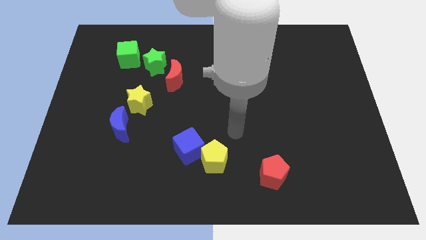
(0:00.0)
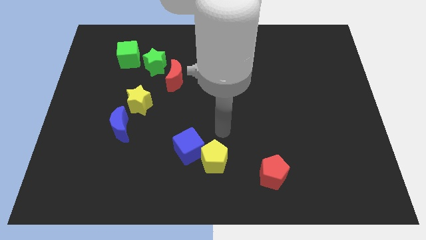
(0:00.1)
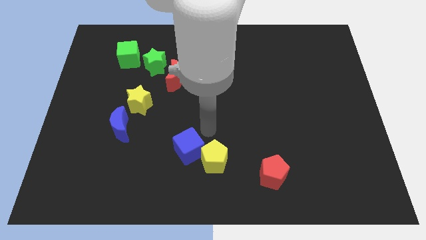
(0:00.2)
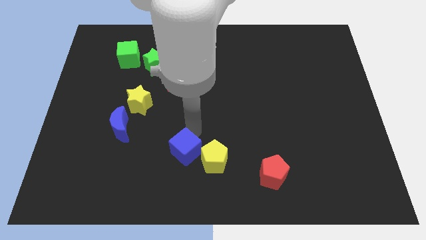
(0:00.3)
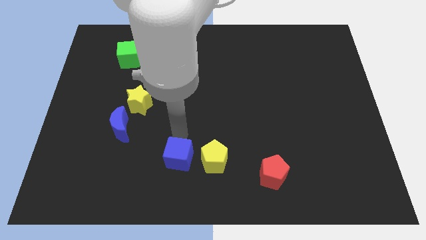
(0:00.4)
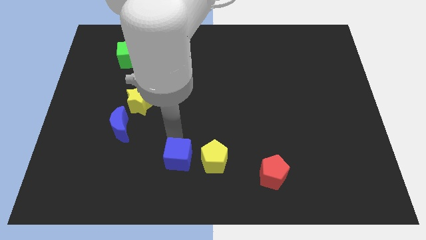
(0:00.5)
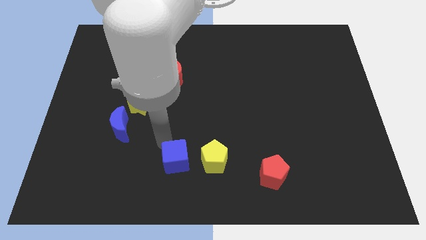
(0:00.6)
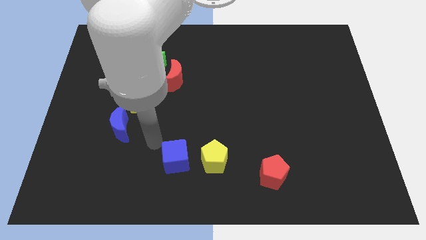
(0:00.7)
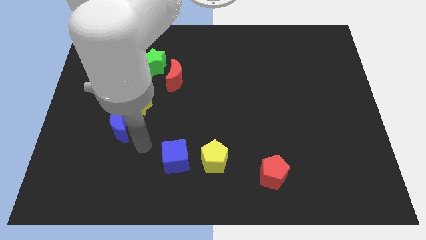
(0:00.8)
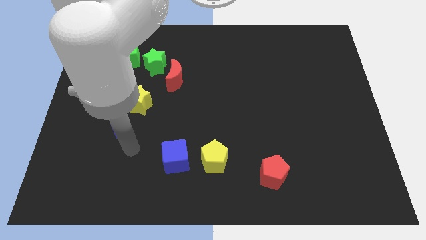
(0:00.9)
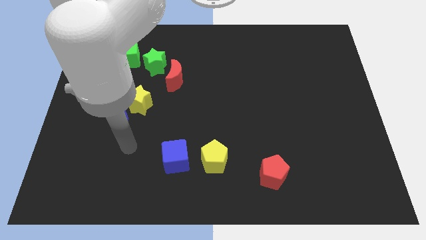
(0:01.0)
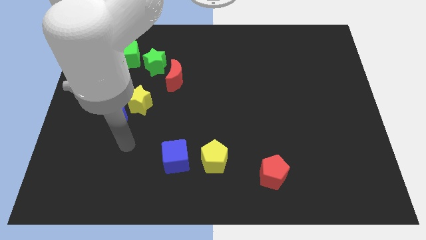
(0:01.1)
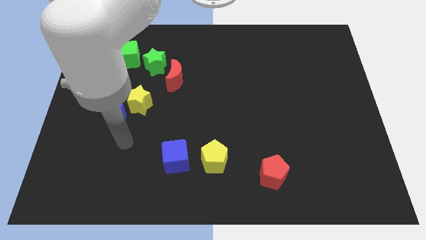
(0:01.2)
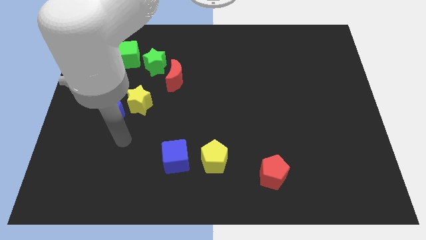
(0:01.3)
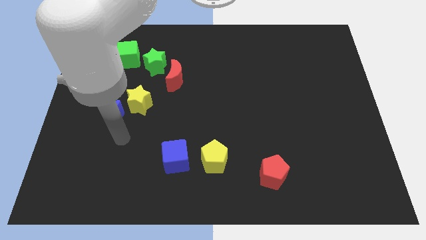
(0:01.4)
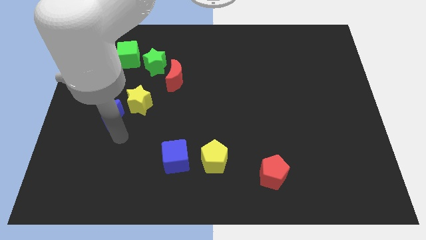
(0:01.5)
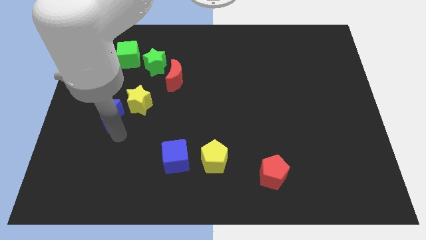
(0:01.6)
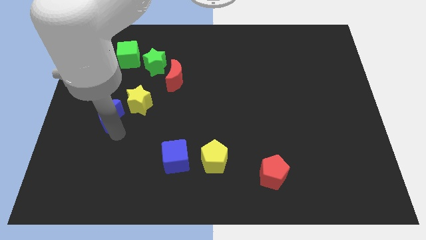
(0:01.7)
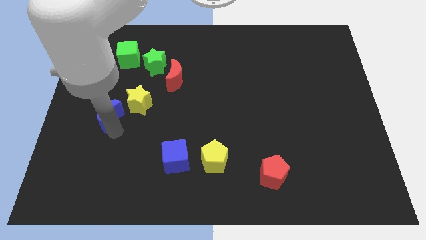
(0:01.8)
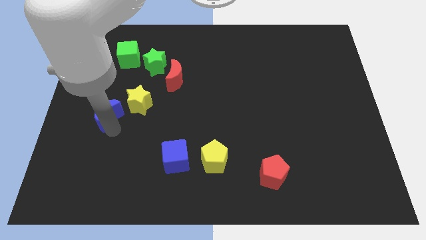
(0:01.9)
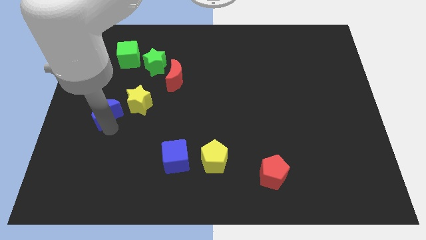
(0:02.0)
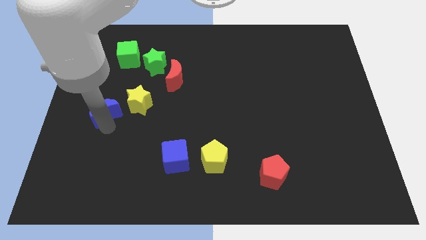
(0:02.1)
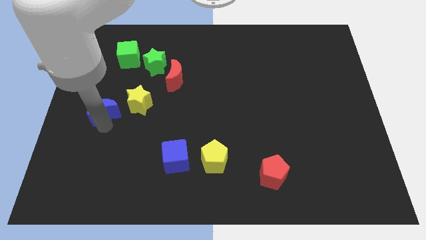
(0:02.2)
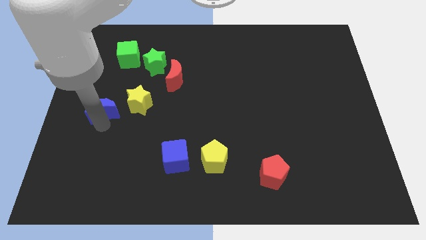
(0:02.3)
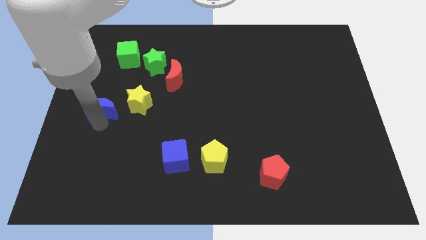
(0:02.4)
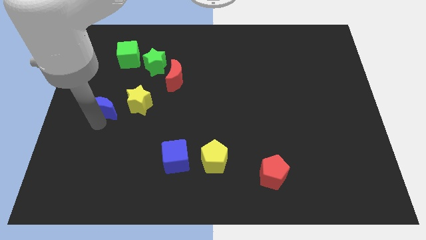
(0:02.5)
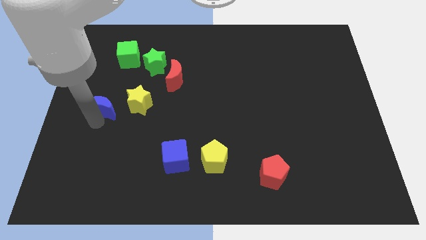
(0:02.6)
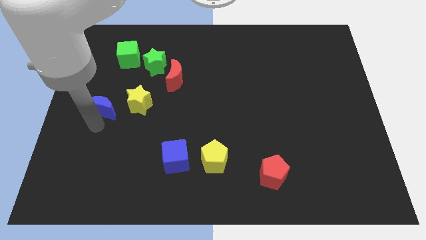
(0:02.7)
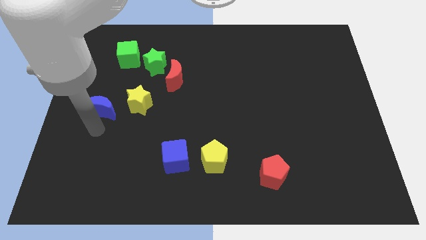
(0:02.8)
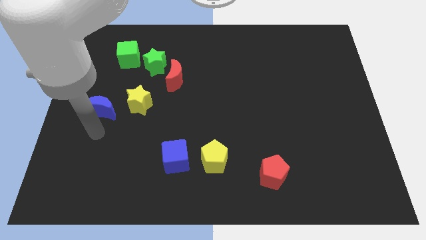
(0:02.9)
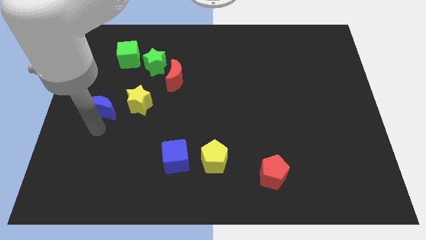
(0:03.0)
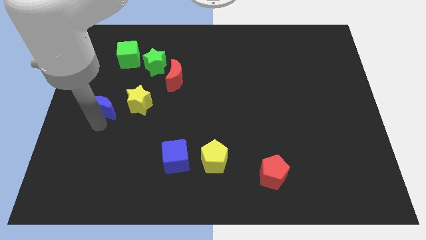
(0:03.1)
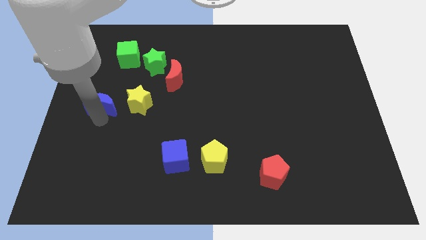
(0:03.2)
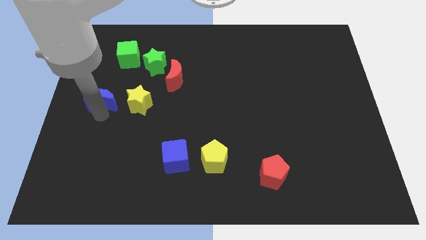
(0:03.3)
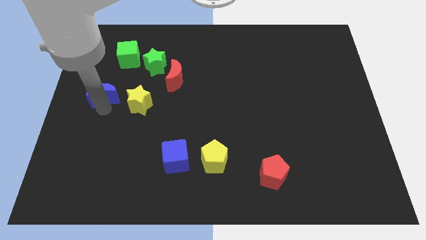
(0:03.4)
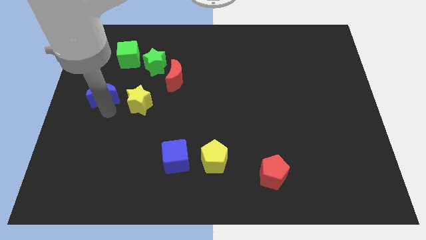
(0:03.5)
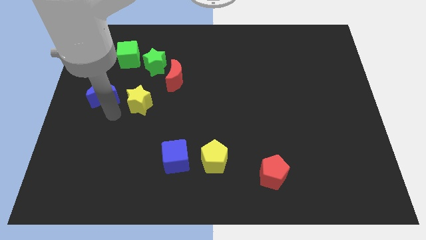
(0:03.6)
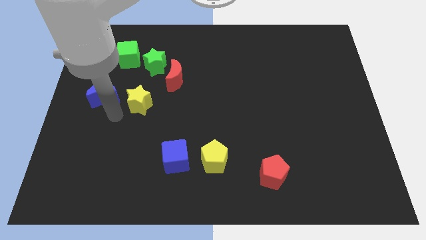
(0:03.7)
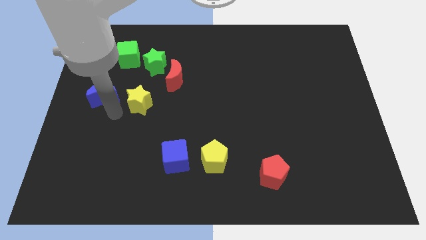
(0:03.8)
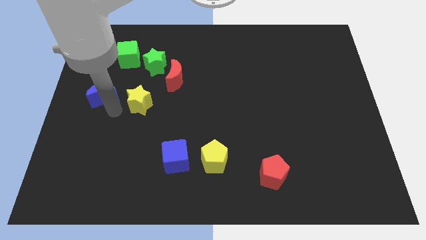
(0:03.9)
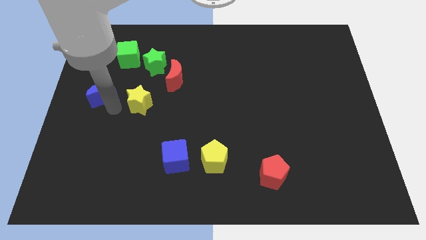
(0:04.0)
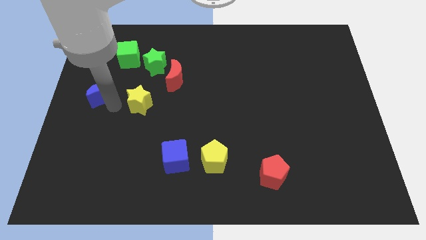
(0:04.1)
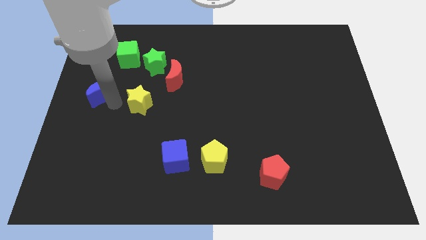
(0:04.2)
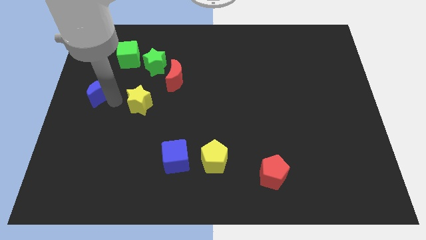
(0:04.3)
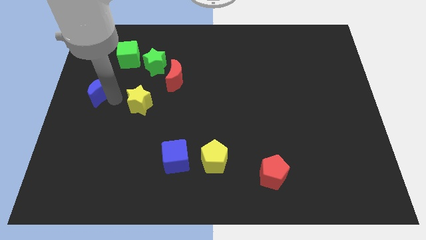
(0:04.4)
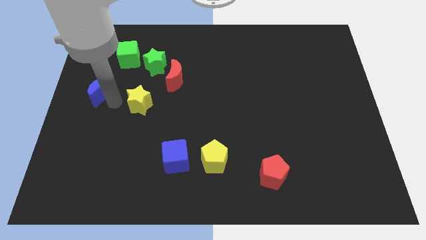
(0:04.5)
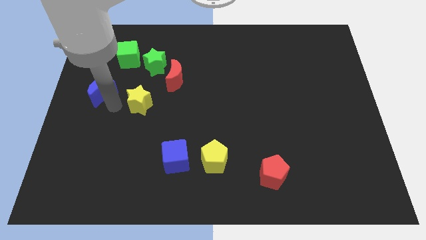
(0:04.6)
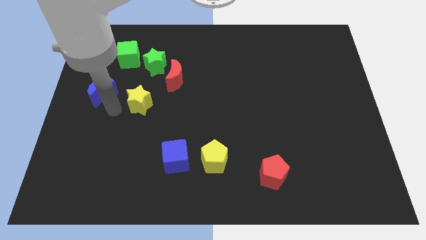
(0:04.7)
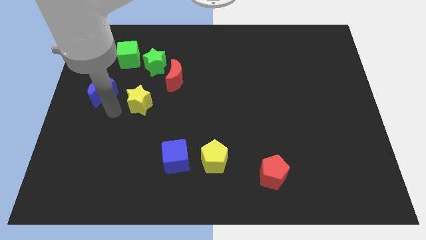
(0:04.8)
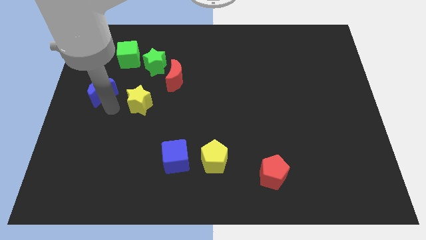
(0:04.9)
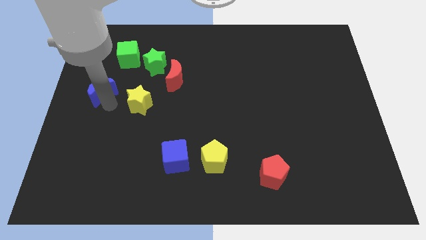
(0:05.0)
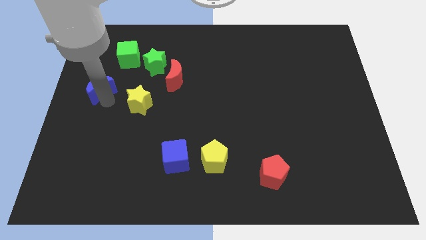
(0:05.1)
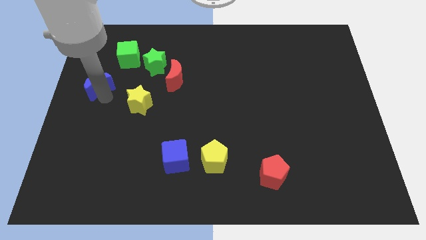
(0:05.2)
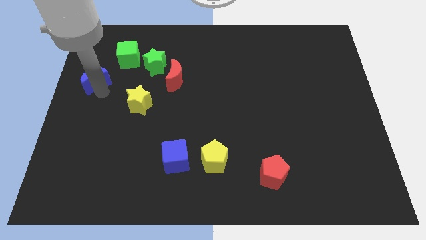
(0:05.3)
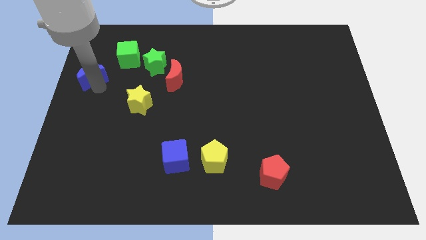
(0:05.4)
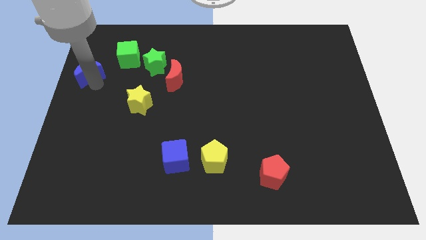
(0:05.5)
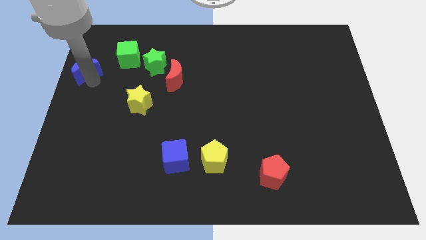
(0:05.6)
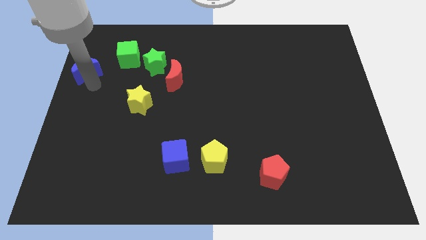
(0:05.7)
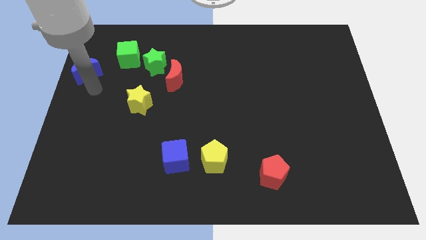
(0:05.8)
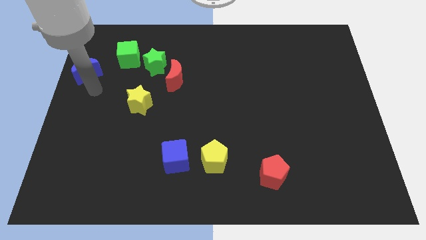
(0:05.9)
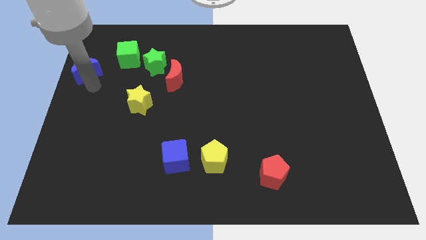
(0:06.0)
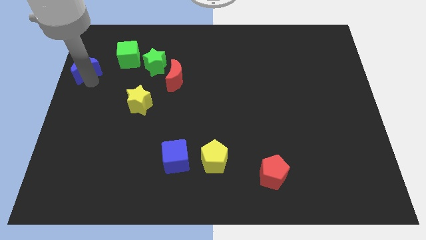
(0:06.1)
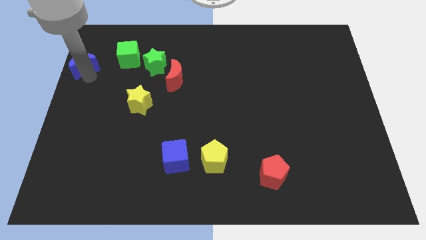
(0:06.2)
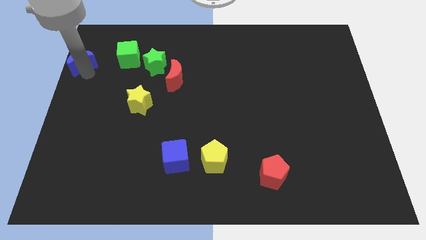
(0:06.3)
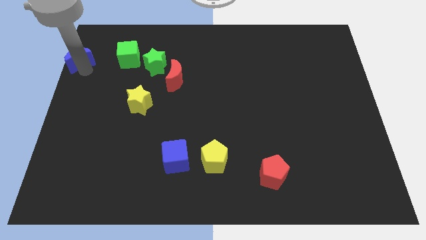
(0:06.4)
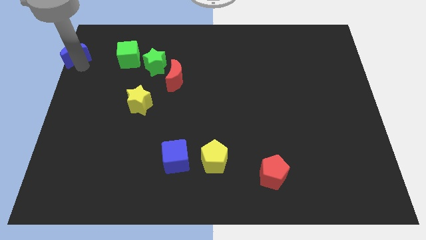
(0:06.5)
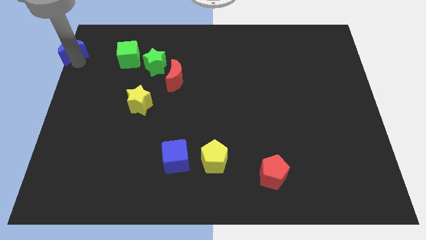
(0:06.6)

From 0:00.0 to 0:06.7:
push the blue moon to the top left of the board
